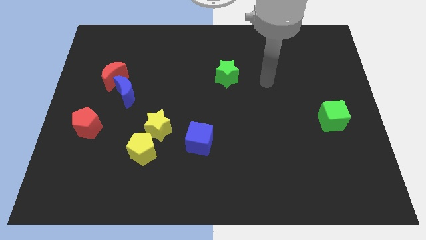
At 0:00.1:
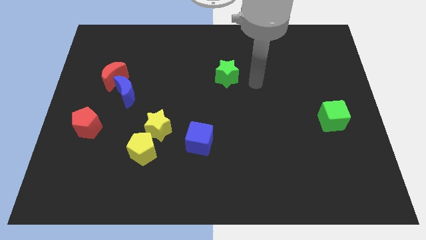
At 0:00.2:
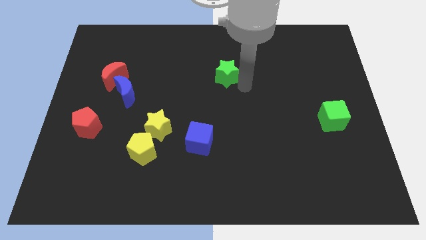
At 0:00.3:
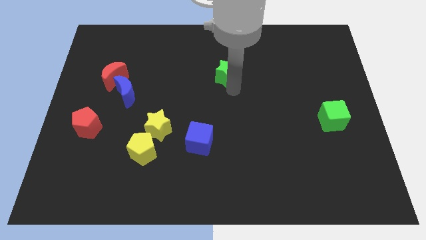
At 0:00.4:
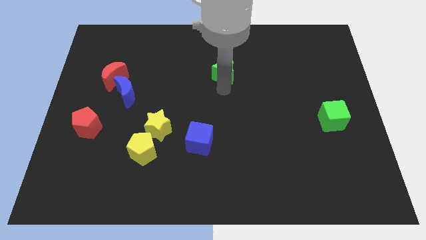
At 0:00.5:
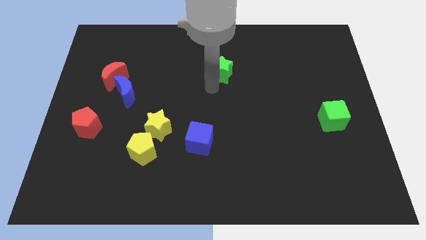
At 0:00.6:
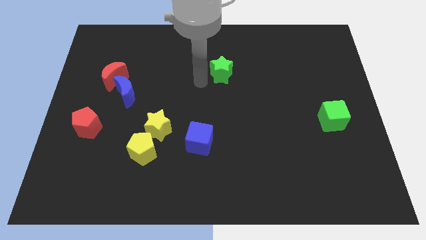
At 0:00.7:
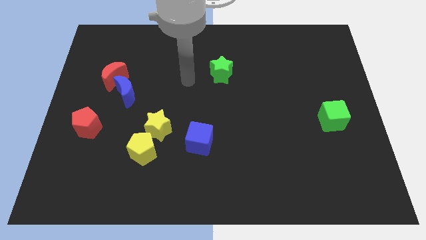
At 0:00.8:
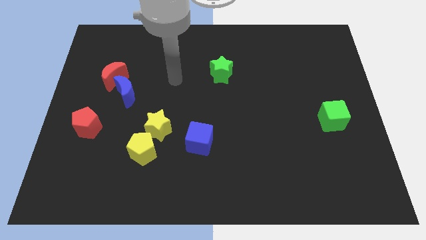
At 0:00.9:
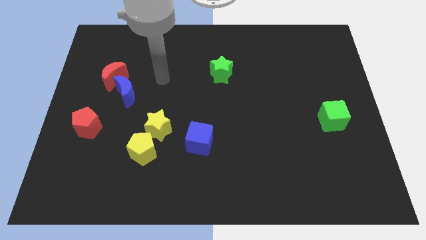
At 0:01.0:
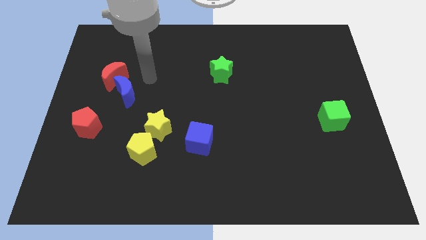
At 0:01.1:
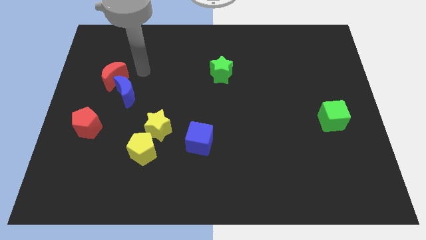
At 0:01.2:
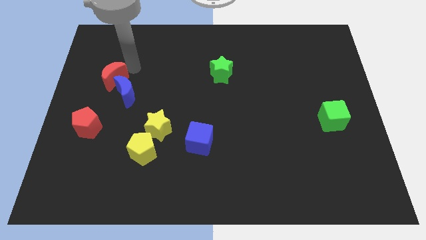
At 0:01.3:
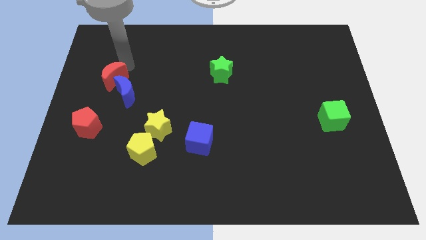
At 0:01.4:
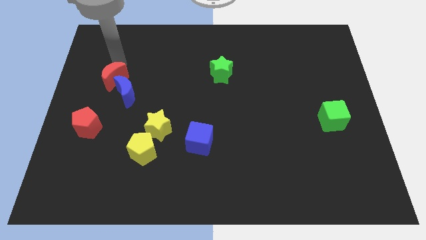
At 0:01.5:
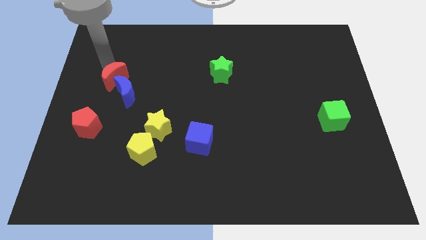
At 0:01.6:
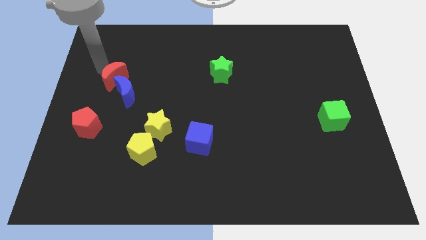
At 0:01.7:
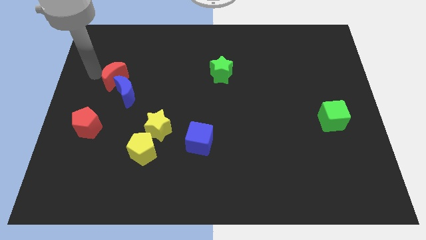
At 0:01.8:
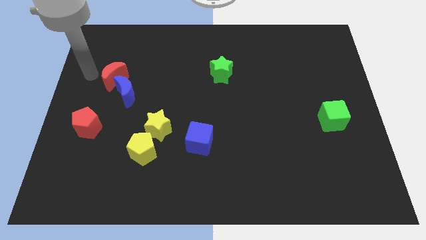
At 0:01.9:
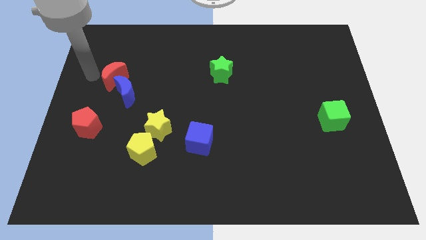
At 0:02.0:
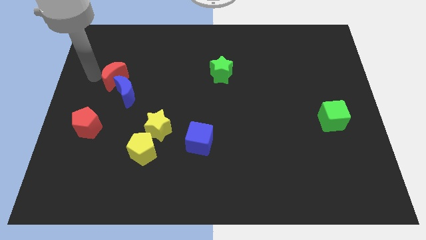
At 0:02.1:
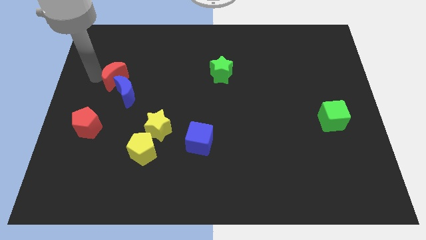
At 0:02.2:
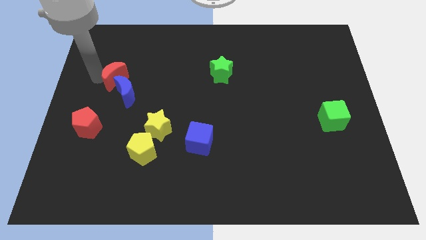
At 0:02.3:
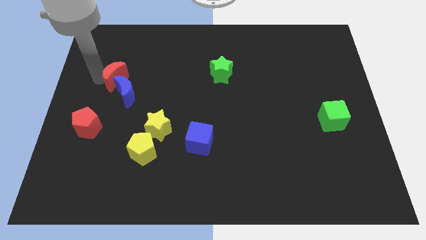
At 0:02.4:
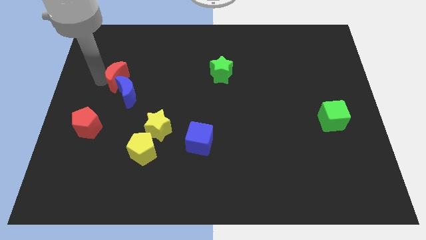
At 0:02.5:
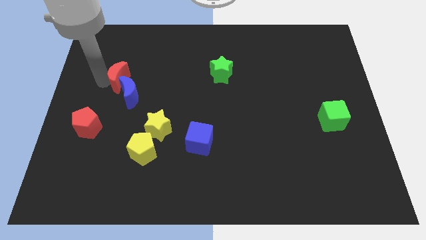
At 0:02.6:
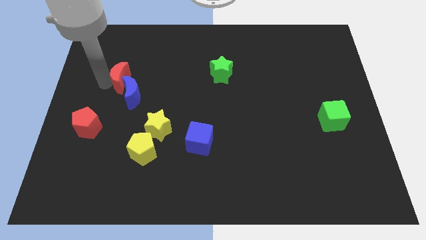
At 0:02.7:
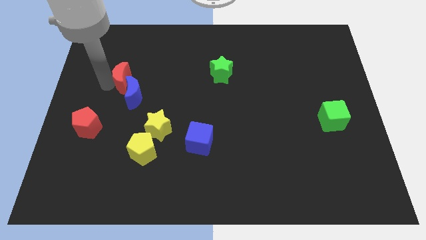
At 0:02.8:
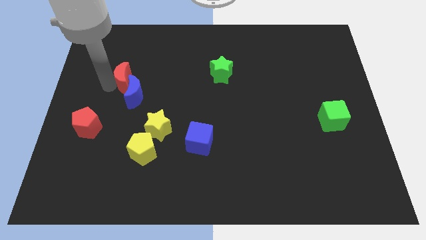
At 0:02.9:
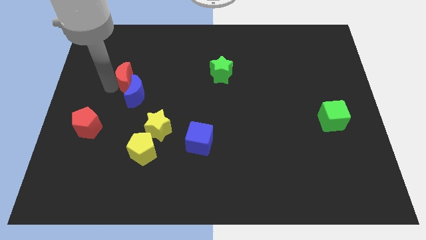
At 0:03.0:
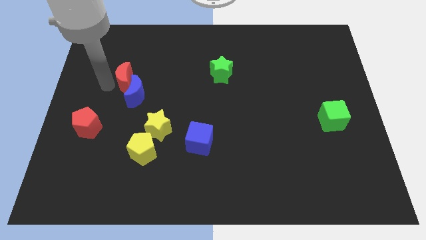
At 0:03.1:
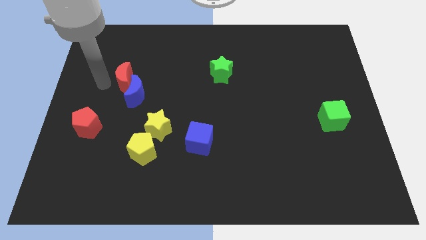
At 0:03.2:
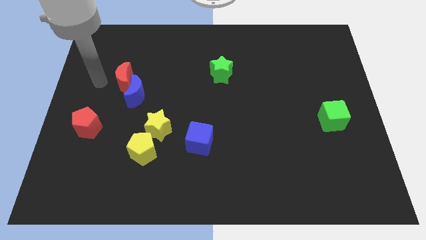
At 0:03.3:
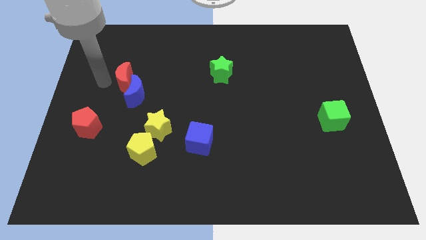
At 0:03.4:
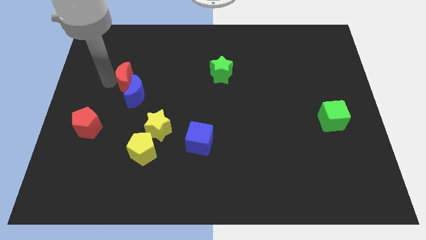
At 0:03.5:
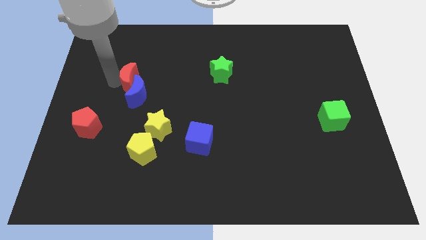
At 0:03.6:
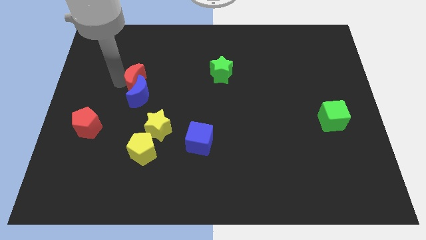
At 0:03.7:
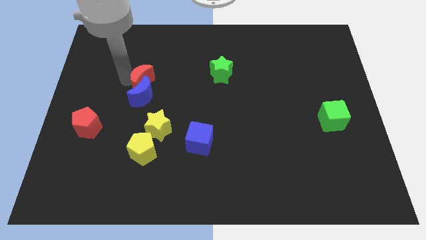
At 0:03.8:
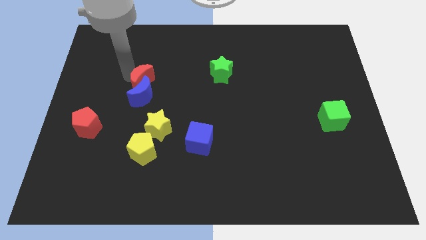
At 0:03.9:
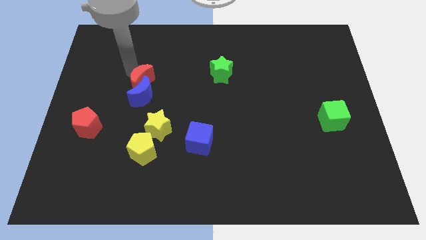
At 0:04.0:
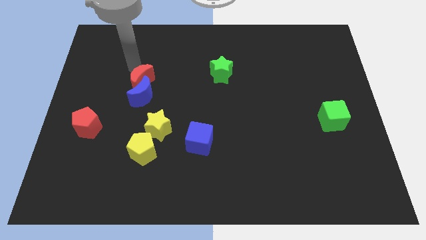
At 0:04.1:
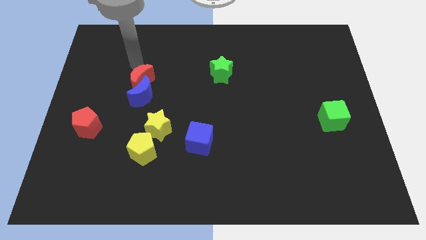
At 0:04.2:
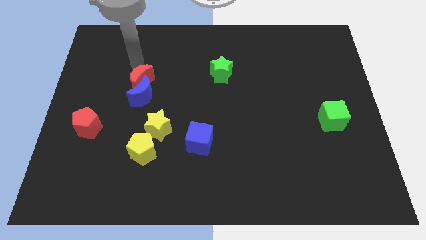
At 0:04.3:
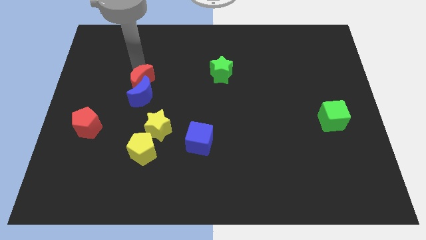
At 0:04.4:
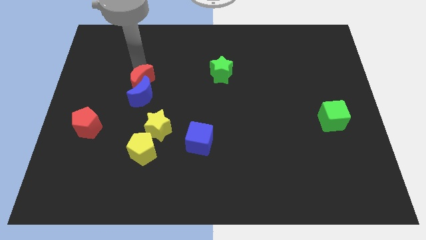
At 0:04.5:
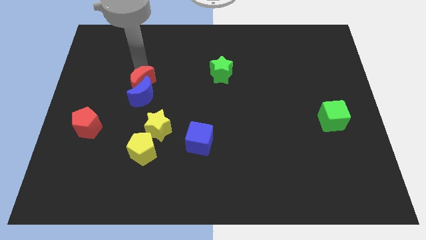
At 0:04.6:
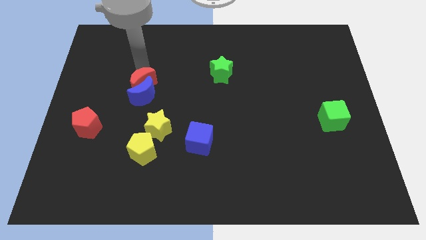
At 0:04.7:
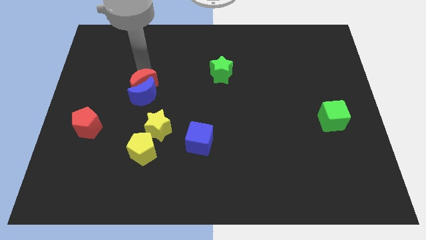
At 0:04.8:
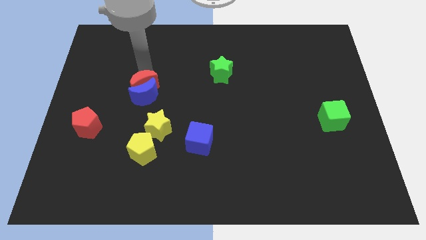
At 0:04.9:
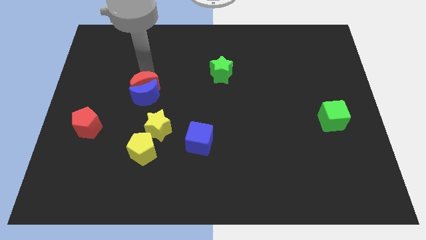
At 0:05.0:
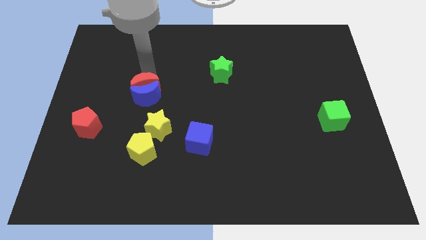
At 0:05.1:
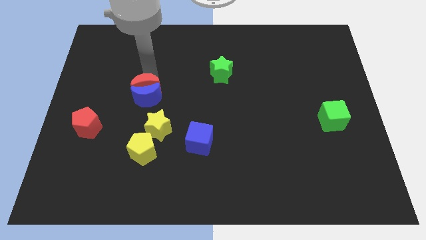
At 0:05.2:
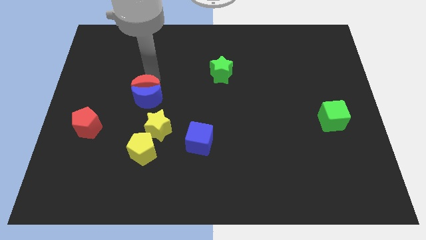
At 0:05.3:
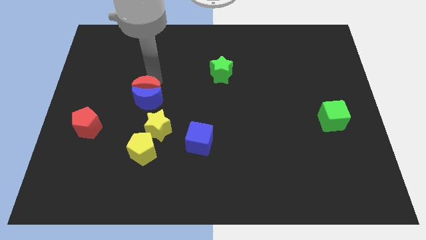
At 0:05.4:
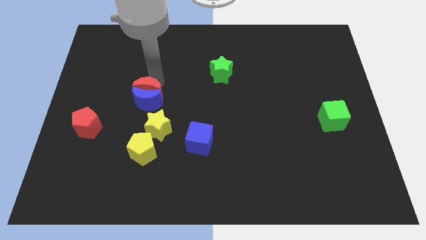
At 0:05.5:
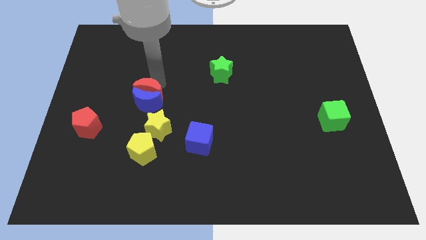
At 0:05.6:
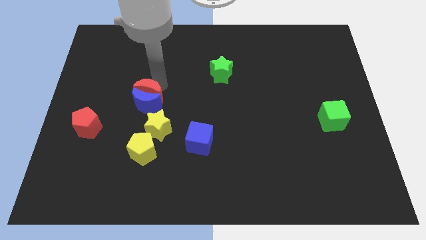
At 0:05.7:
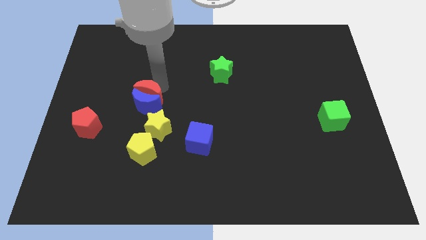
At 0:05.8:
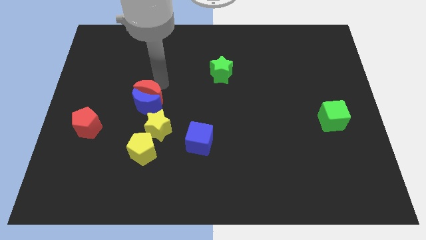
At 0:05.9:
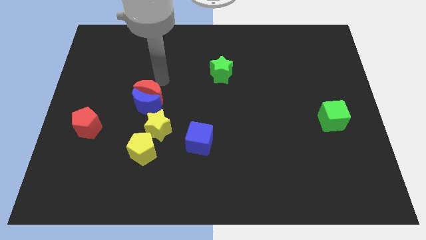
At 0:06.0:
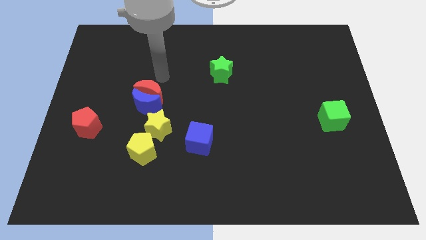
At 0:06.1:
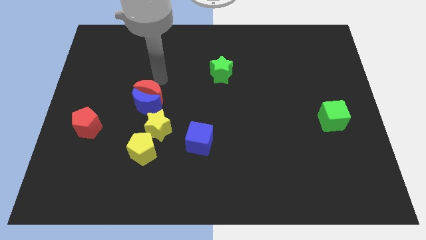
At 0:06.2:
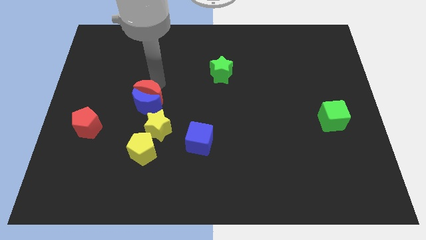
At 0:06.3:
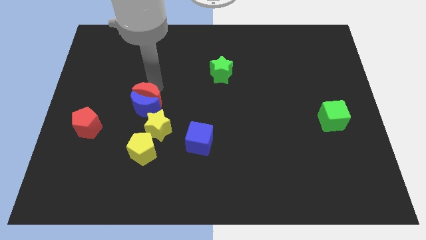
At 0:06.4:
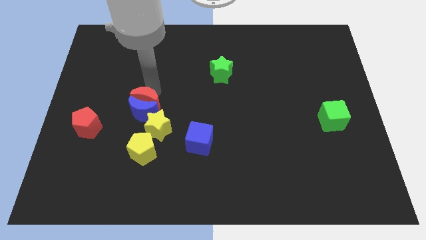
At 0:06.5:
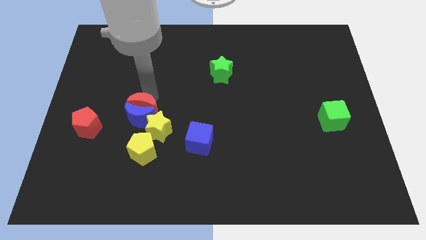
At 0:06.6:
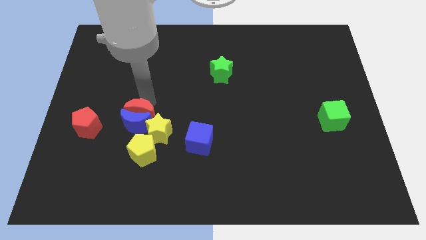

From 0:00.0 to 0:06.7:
move the red moon just right of the red pentagon
